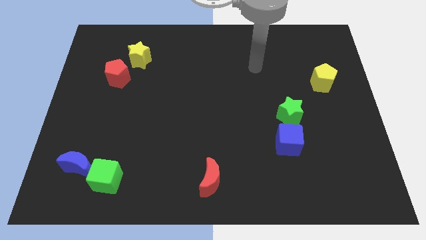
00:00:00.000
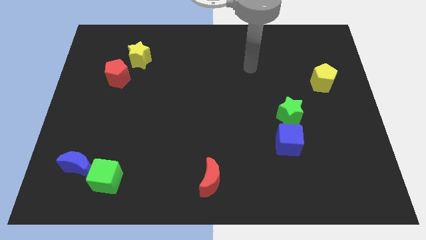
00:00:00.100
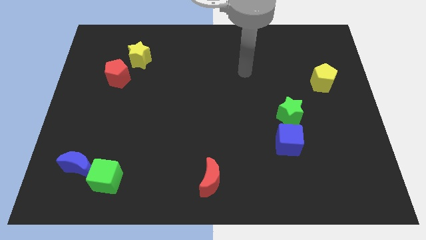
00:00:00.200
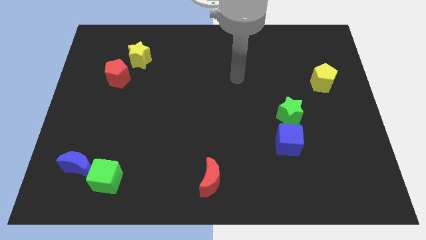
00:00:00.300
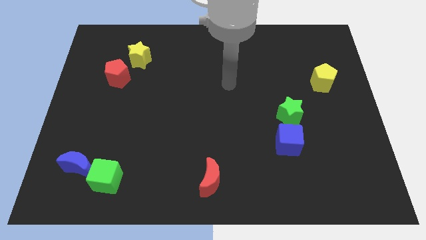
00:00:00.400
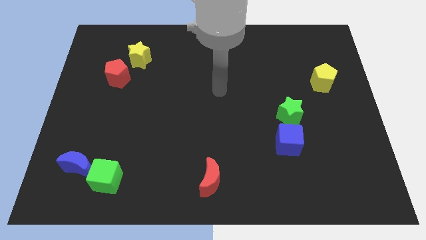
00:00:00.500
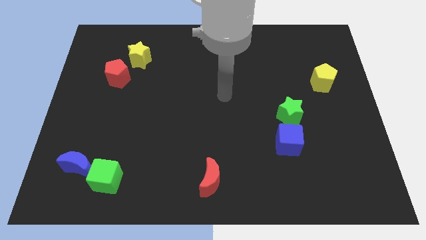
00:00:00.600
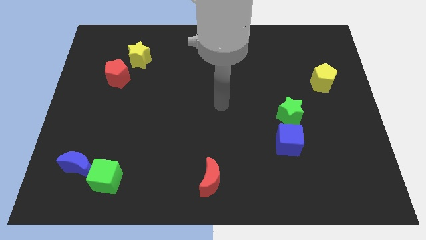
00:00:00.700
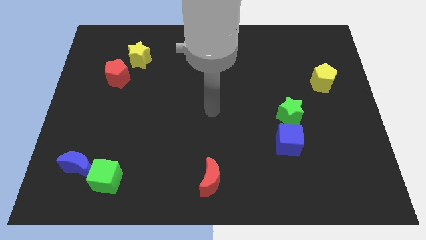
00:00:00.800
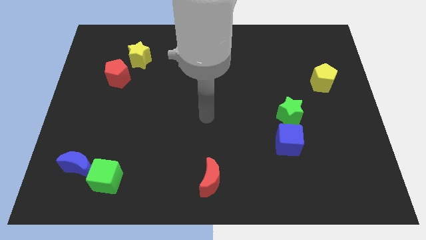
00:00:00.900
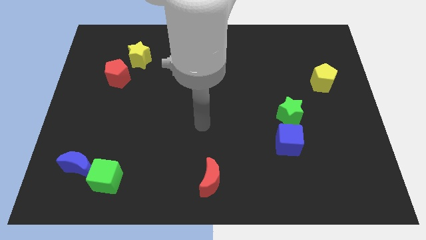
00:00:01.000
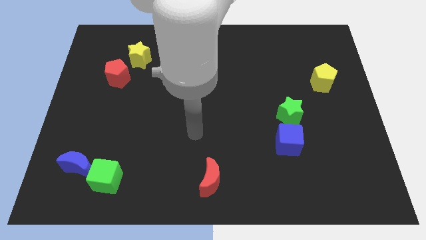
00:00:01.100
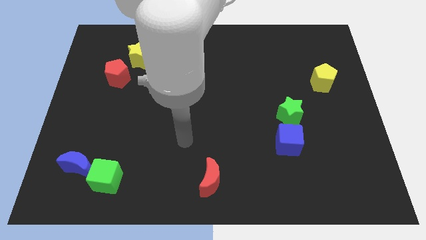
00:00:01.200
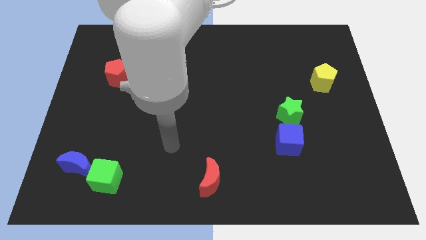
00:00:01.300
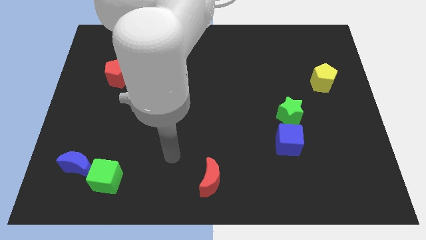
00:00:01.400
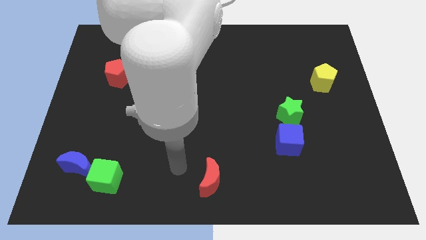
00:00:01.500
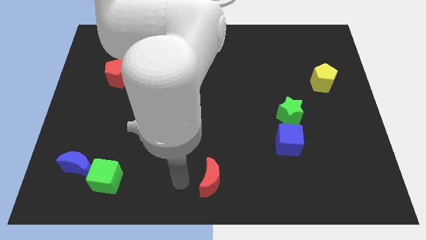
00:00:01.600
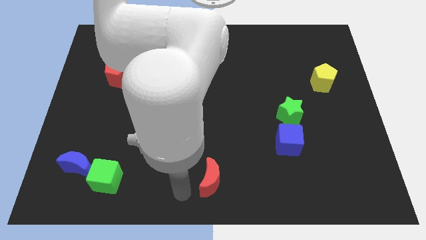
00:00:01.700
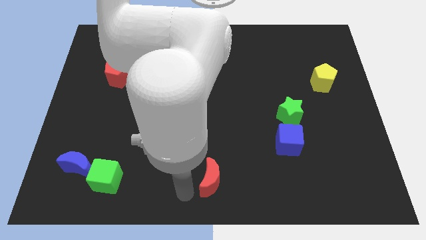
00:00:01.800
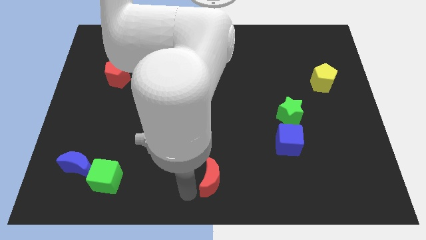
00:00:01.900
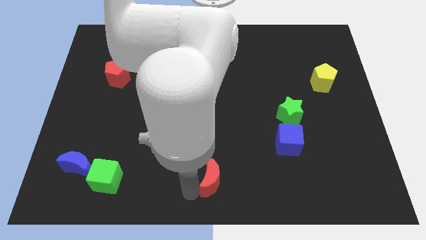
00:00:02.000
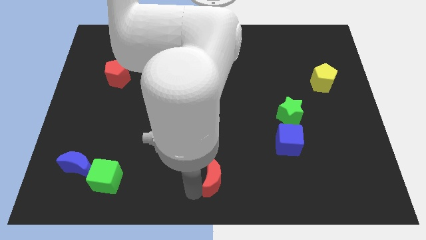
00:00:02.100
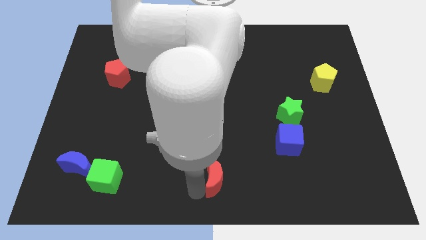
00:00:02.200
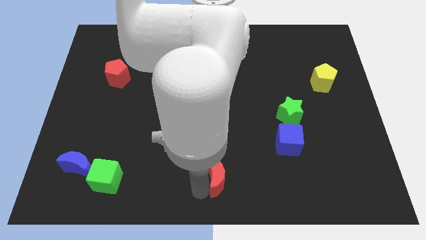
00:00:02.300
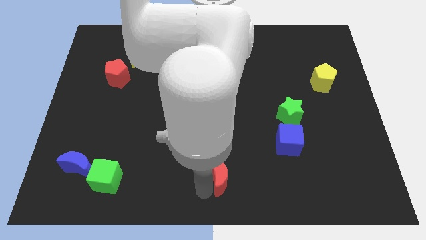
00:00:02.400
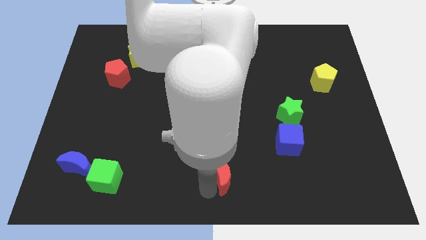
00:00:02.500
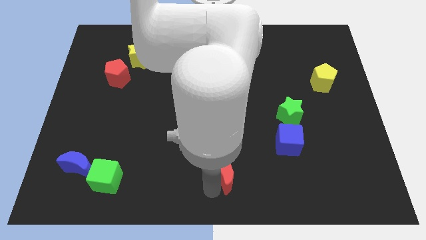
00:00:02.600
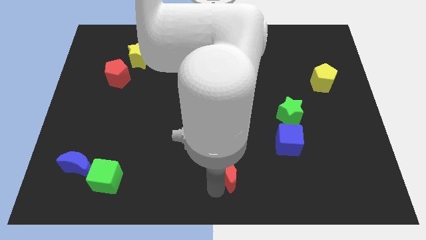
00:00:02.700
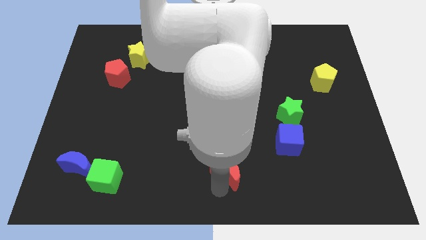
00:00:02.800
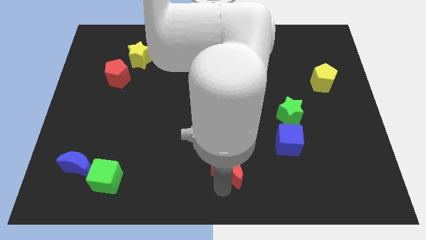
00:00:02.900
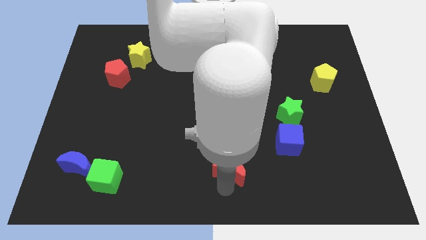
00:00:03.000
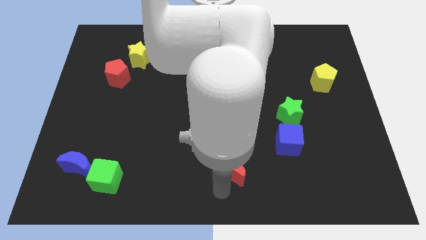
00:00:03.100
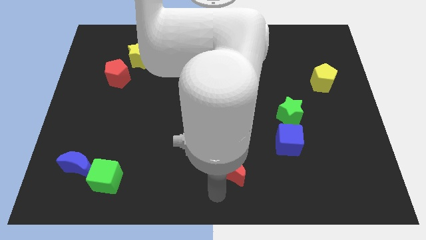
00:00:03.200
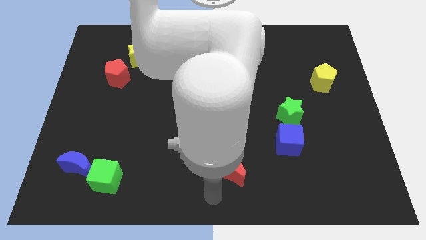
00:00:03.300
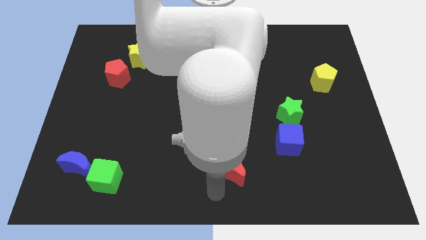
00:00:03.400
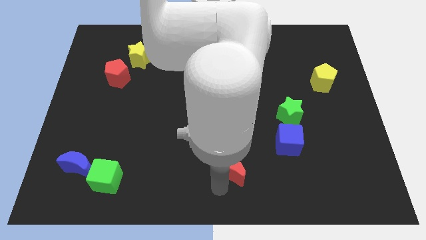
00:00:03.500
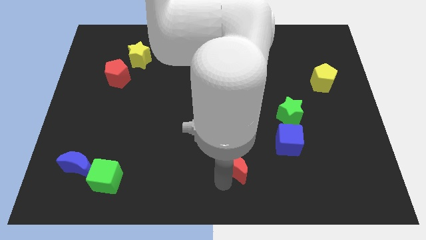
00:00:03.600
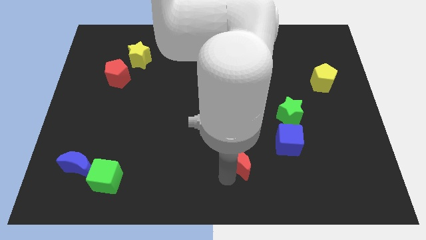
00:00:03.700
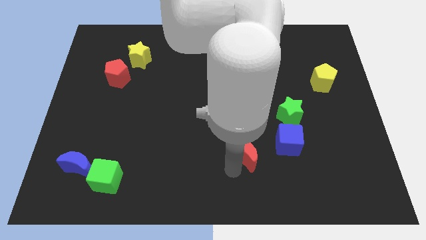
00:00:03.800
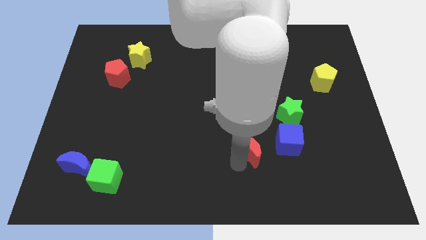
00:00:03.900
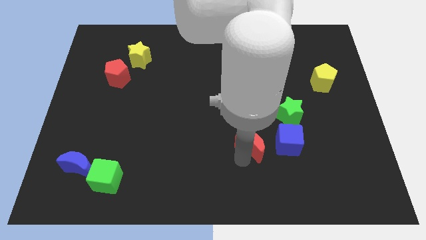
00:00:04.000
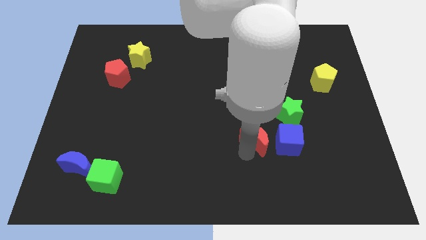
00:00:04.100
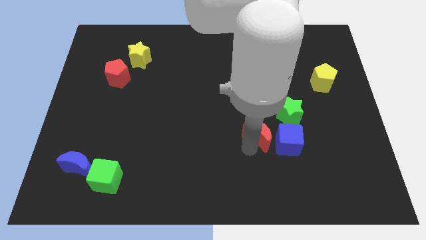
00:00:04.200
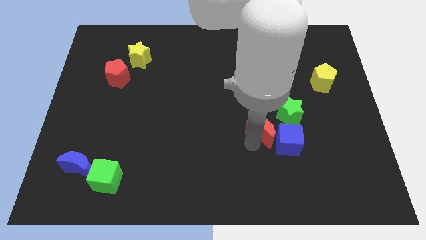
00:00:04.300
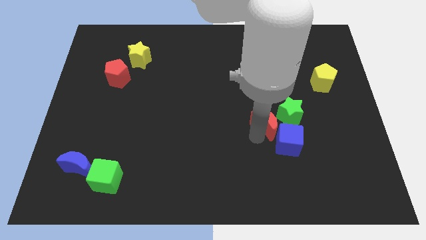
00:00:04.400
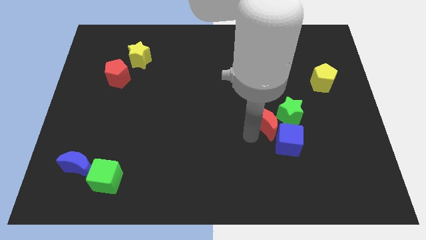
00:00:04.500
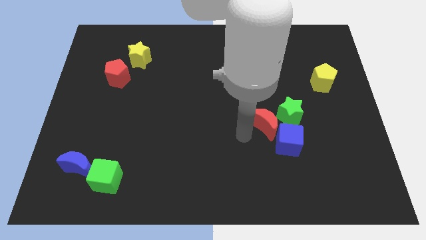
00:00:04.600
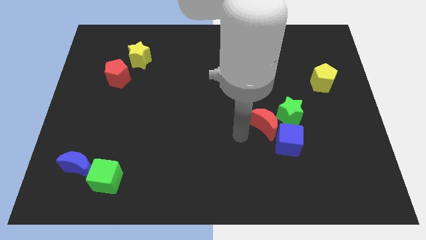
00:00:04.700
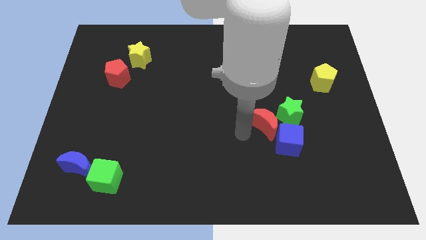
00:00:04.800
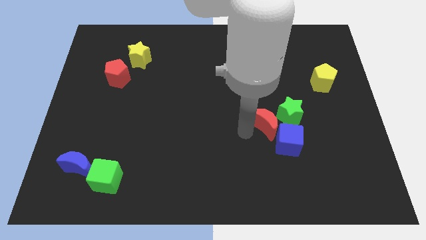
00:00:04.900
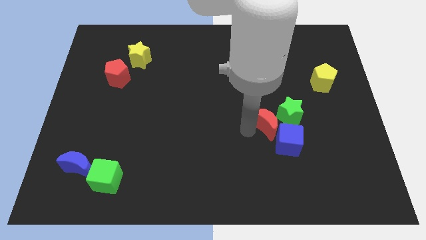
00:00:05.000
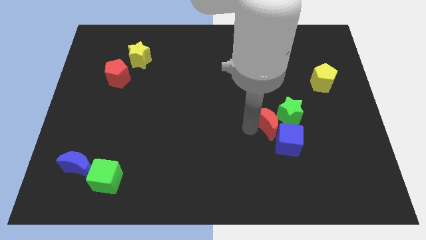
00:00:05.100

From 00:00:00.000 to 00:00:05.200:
push the red moon towards the green star

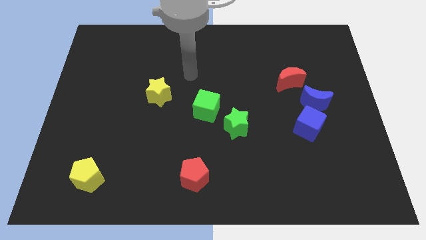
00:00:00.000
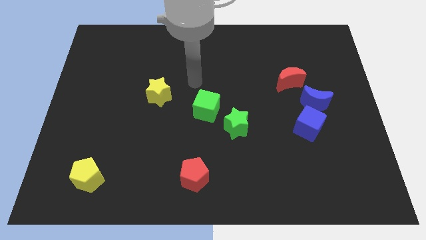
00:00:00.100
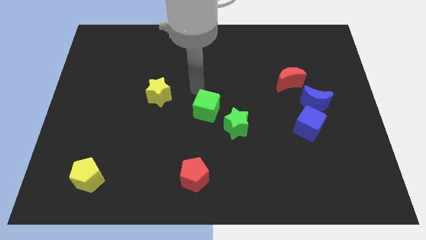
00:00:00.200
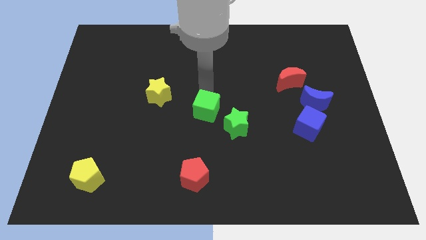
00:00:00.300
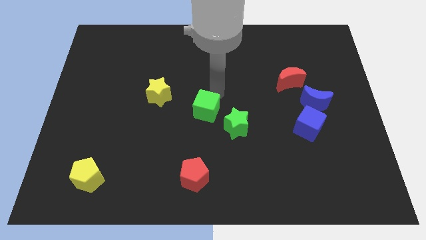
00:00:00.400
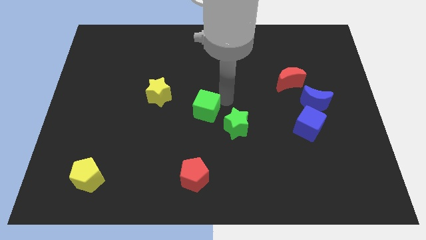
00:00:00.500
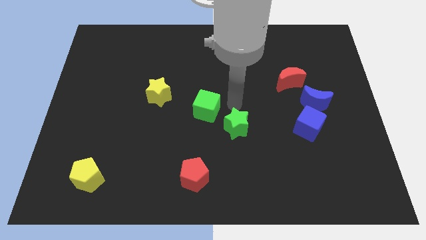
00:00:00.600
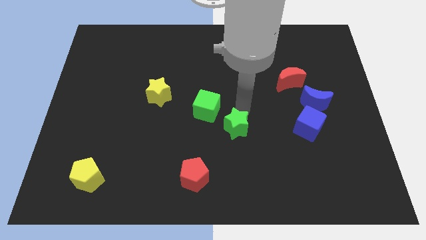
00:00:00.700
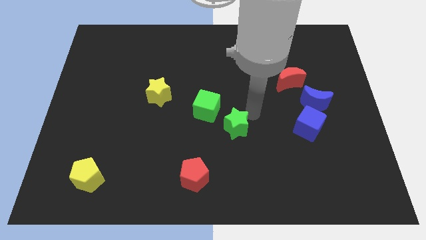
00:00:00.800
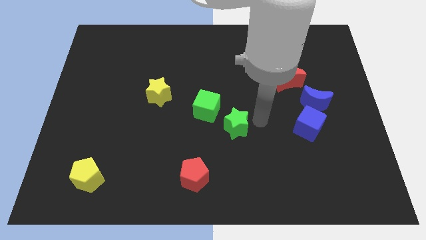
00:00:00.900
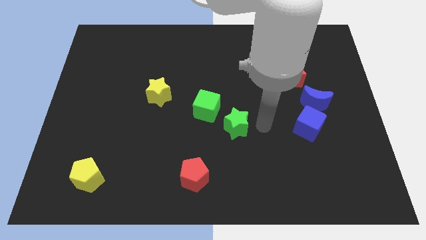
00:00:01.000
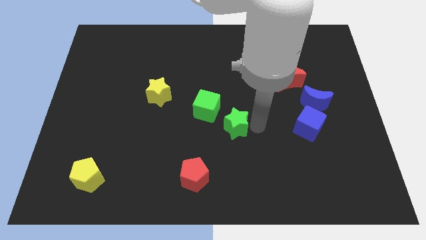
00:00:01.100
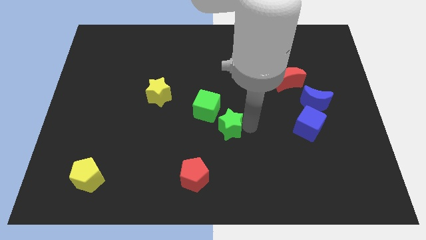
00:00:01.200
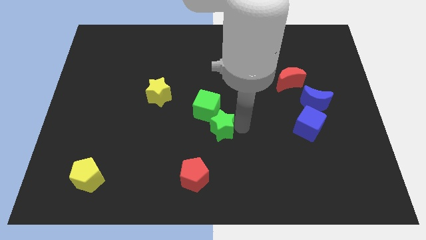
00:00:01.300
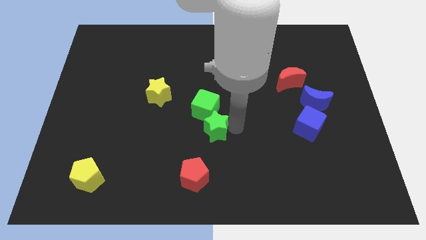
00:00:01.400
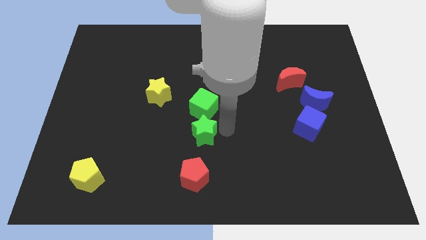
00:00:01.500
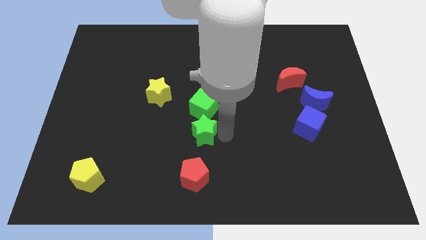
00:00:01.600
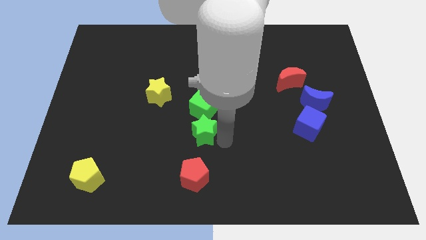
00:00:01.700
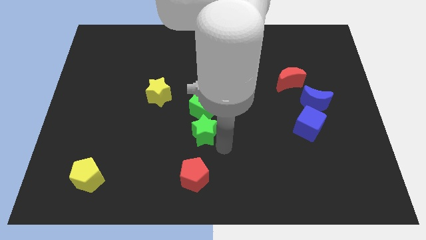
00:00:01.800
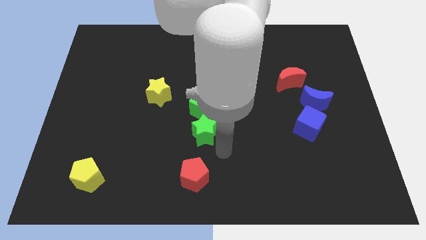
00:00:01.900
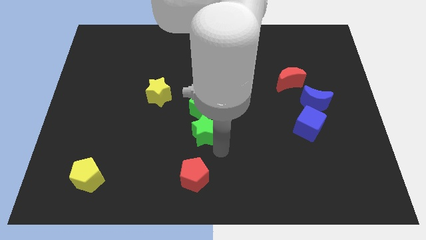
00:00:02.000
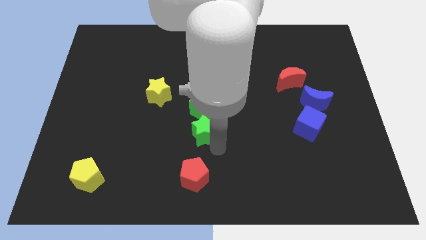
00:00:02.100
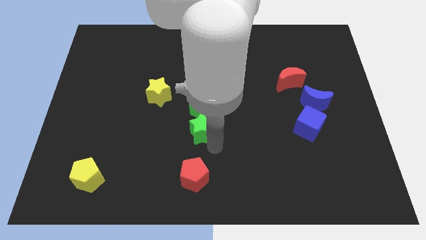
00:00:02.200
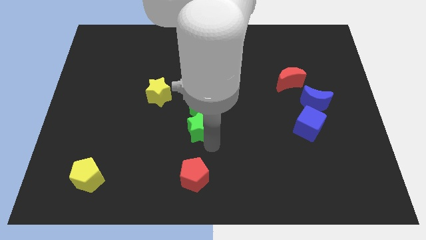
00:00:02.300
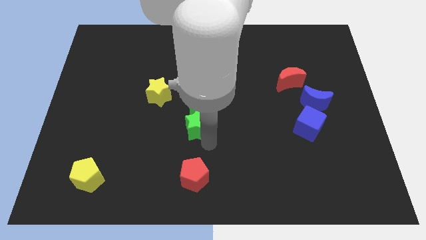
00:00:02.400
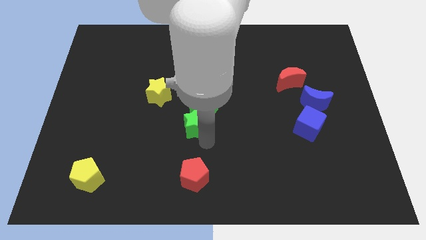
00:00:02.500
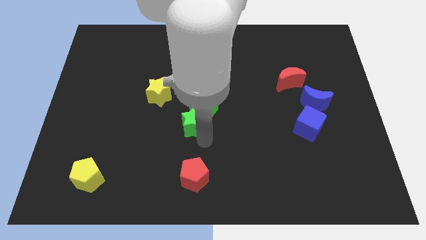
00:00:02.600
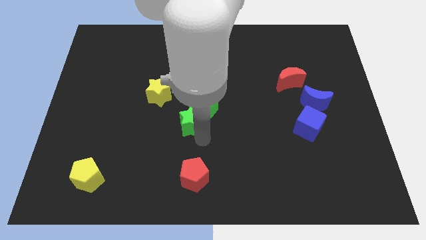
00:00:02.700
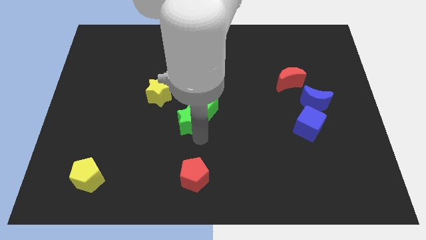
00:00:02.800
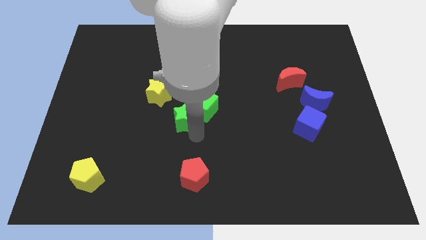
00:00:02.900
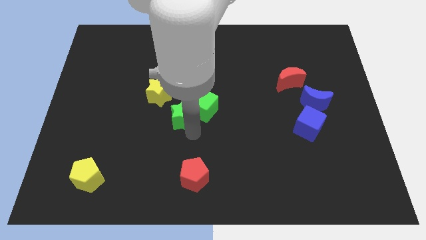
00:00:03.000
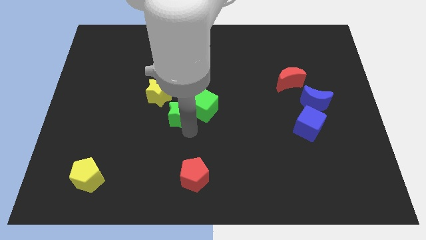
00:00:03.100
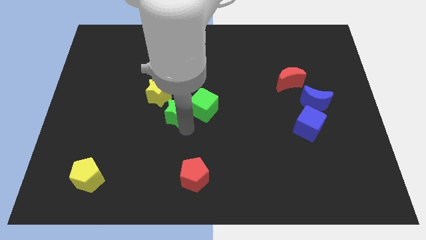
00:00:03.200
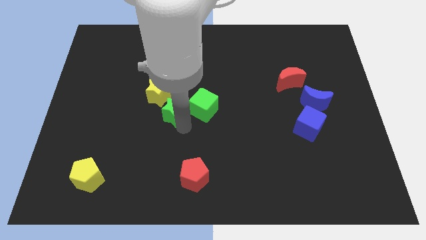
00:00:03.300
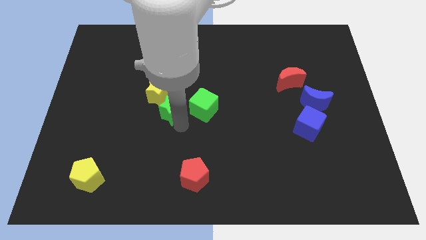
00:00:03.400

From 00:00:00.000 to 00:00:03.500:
move the green star close to the yellow star
